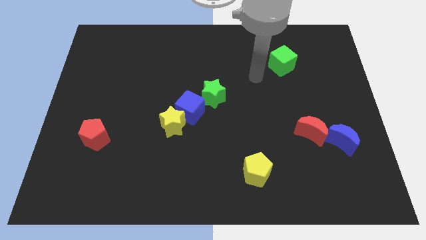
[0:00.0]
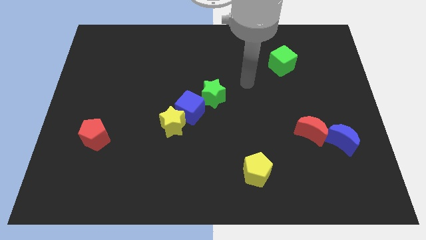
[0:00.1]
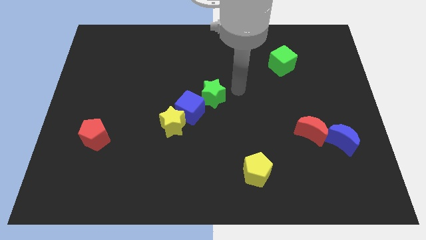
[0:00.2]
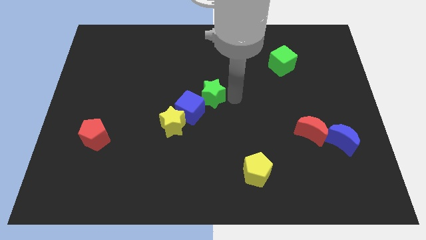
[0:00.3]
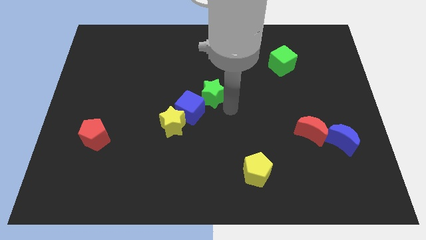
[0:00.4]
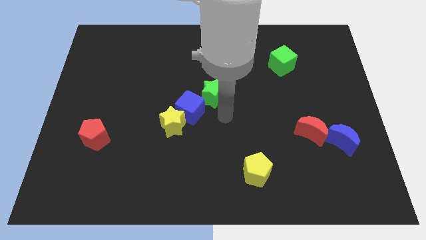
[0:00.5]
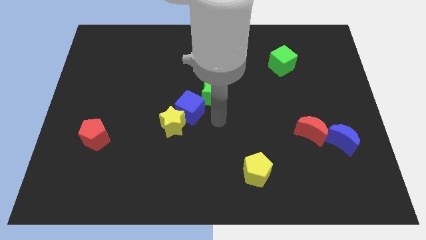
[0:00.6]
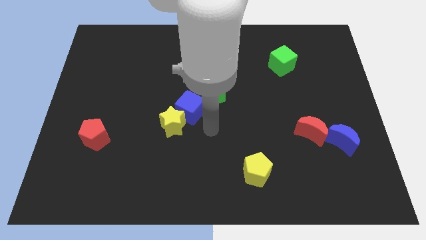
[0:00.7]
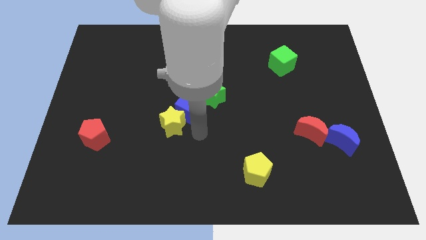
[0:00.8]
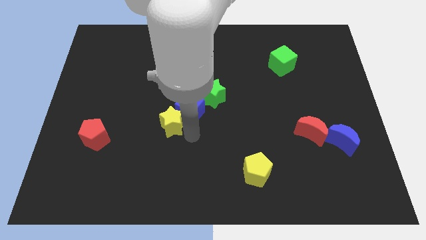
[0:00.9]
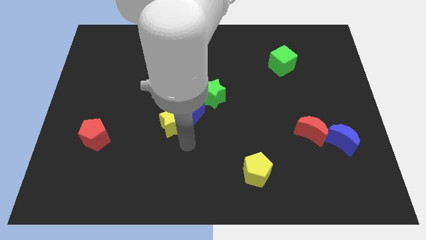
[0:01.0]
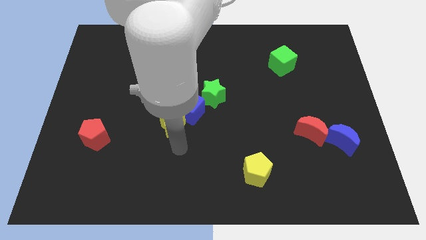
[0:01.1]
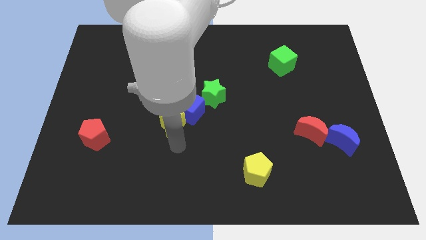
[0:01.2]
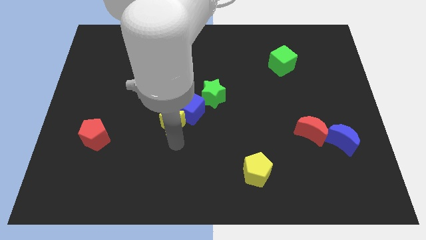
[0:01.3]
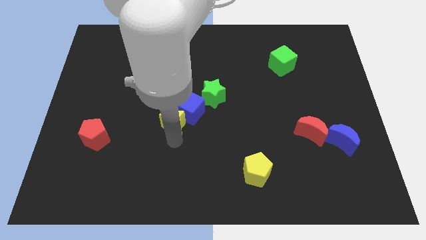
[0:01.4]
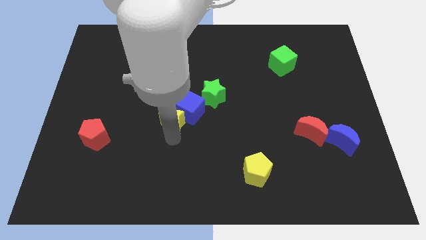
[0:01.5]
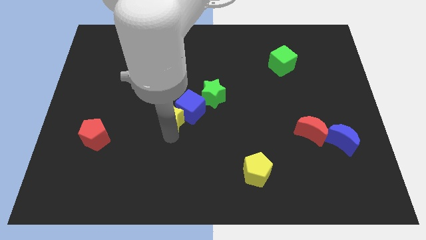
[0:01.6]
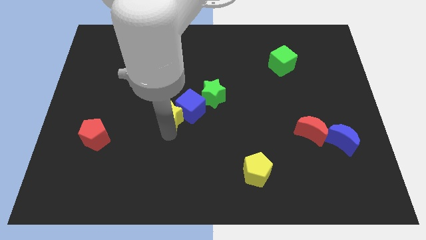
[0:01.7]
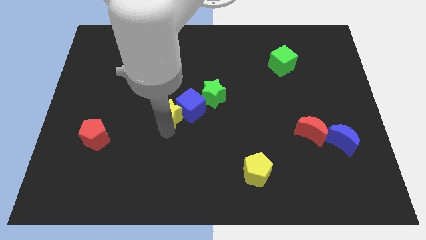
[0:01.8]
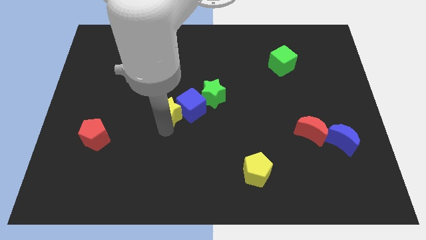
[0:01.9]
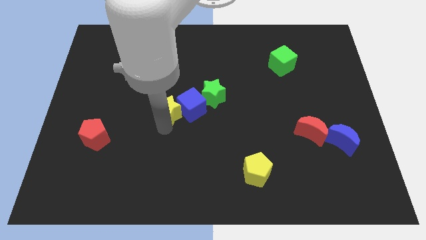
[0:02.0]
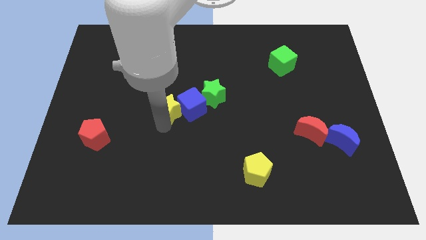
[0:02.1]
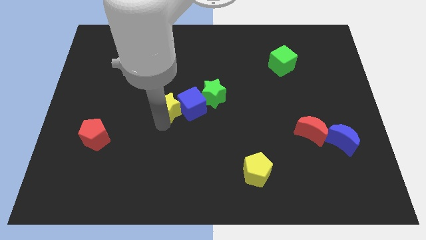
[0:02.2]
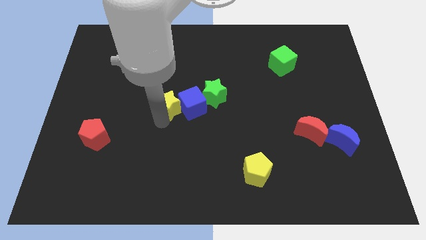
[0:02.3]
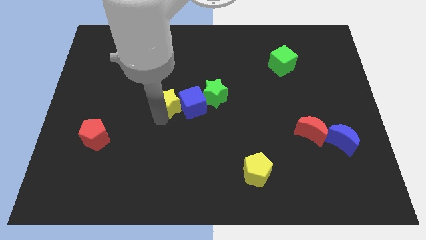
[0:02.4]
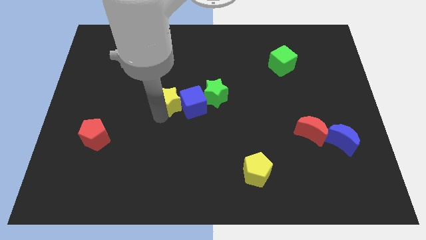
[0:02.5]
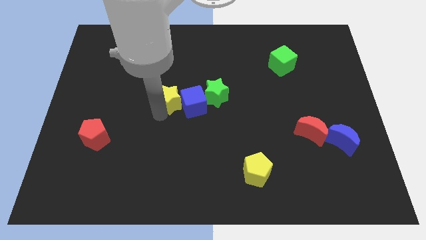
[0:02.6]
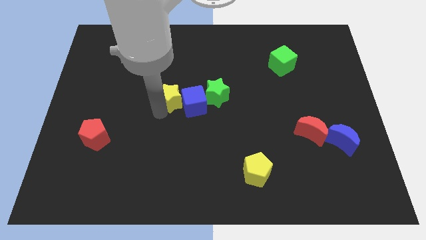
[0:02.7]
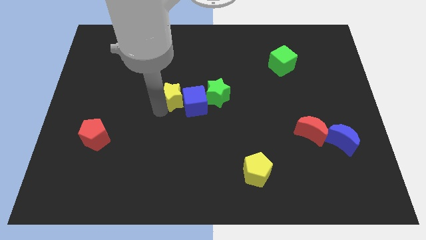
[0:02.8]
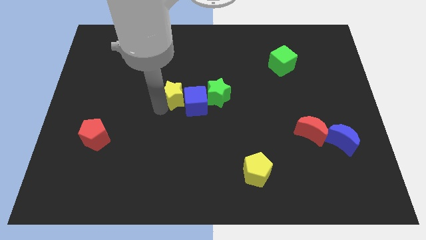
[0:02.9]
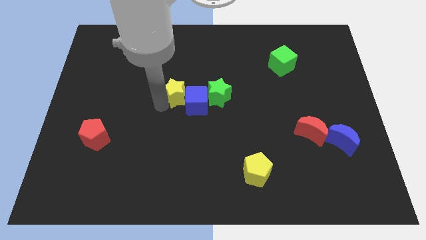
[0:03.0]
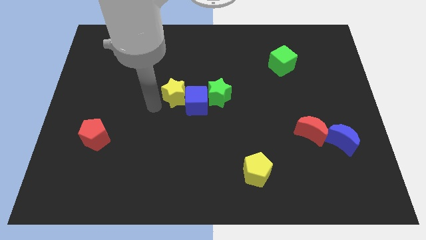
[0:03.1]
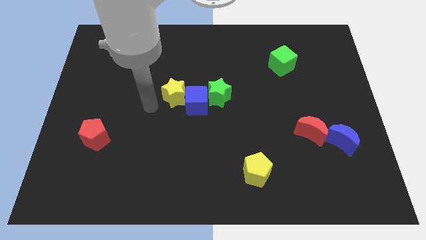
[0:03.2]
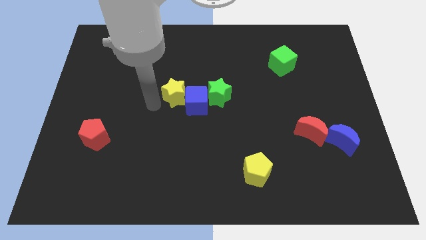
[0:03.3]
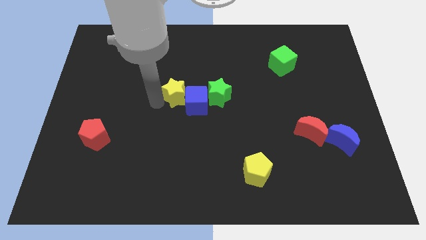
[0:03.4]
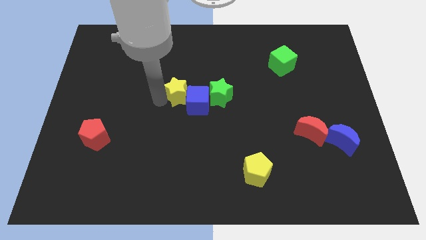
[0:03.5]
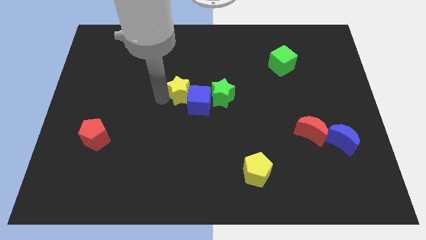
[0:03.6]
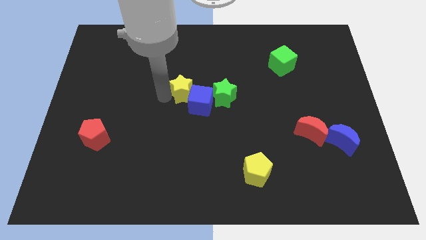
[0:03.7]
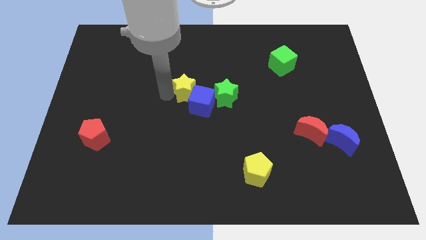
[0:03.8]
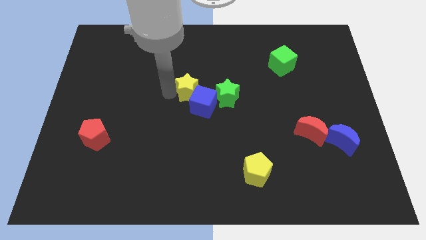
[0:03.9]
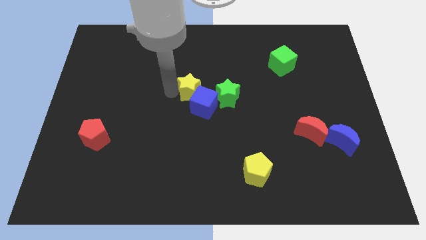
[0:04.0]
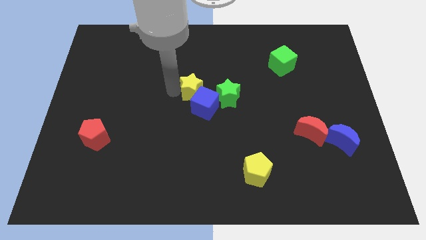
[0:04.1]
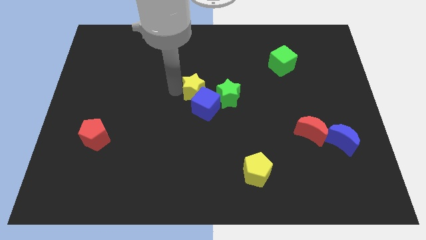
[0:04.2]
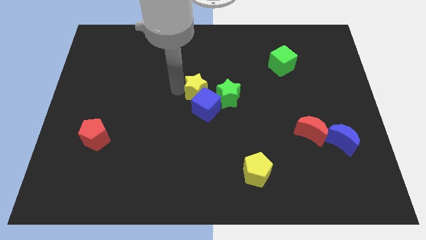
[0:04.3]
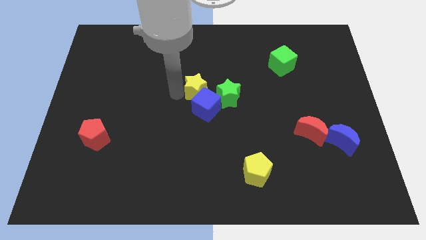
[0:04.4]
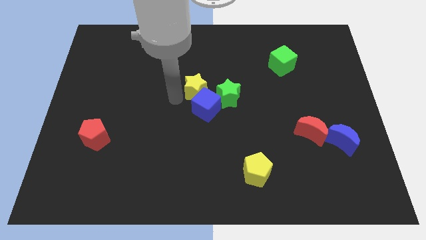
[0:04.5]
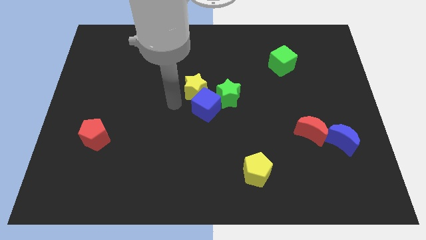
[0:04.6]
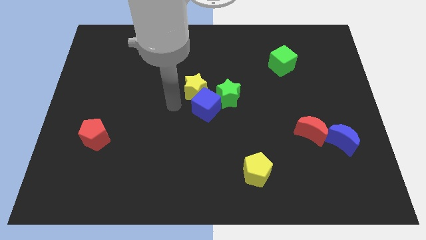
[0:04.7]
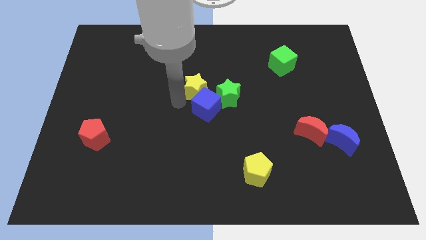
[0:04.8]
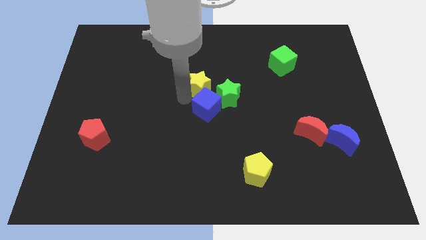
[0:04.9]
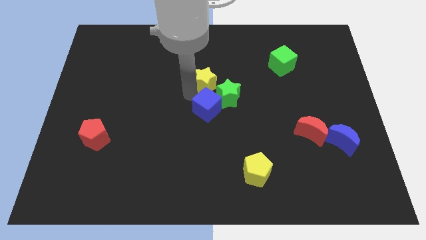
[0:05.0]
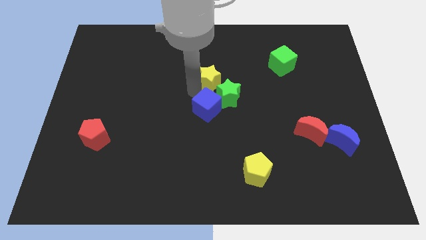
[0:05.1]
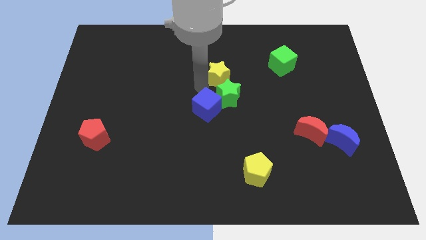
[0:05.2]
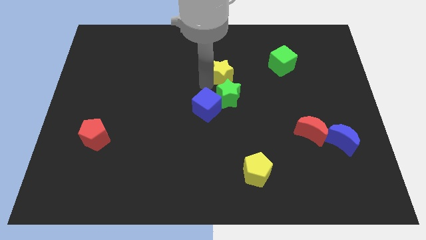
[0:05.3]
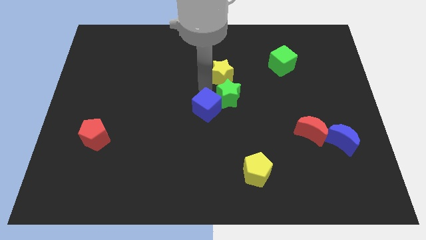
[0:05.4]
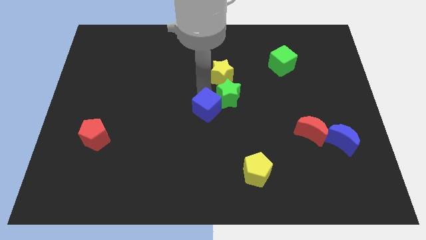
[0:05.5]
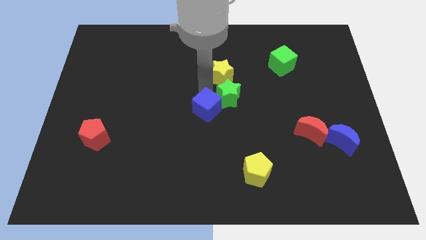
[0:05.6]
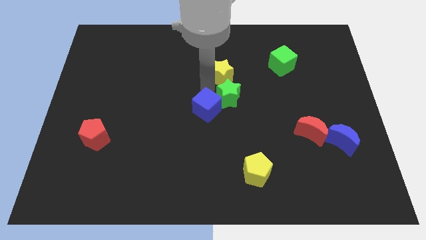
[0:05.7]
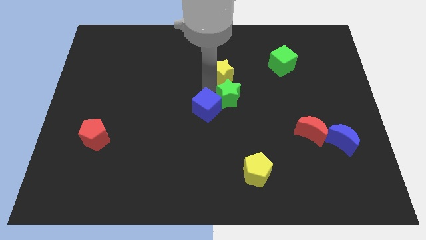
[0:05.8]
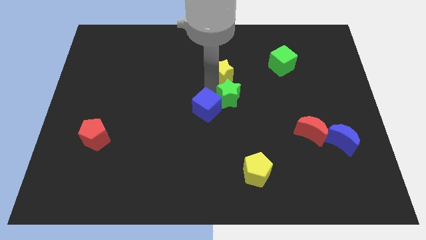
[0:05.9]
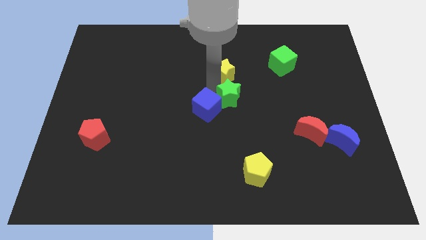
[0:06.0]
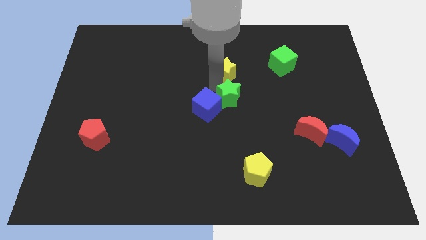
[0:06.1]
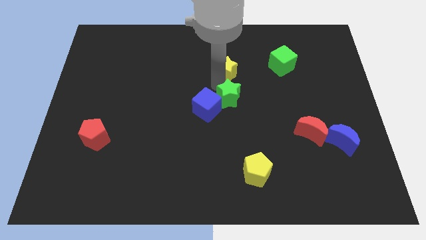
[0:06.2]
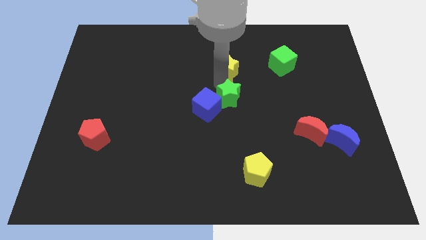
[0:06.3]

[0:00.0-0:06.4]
slide the yellow star upwards and then right

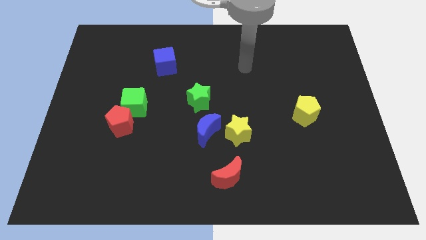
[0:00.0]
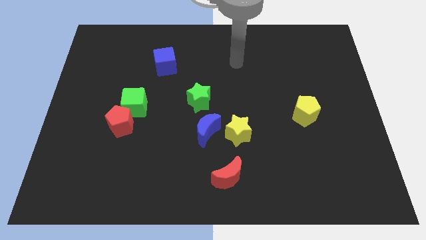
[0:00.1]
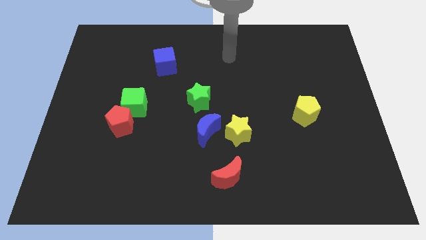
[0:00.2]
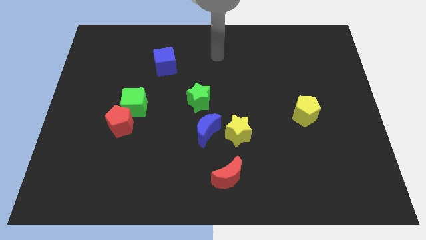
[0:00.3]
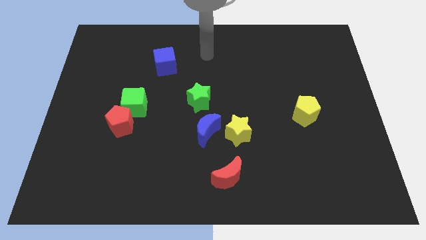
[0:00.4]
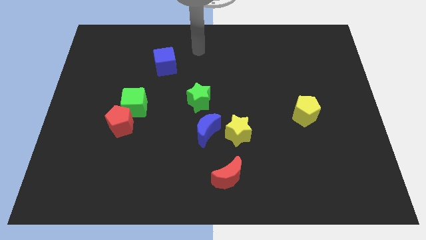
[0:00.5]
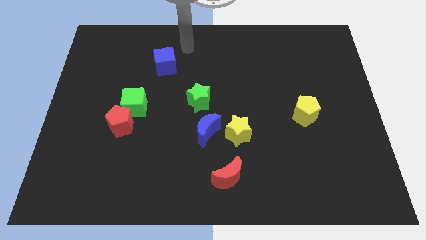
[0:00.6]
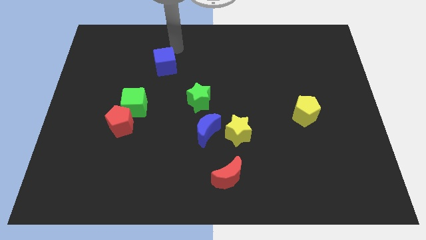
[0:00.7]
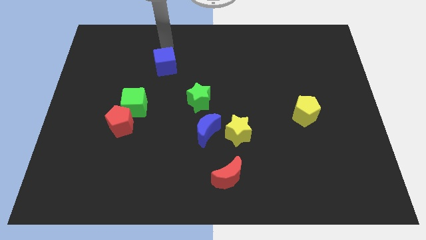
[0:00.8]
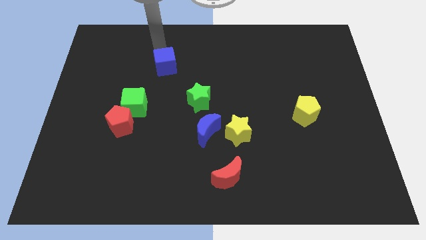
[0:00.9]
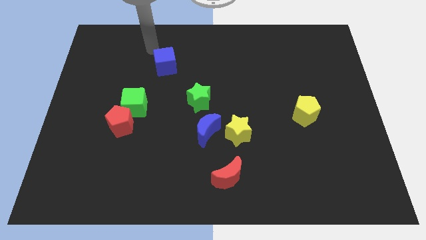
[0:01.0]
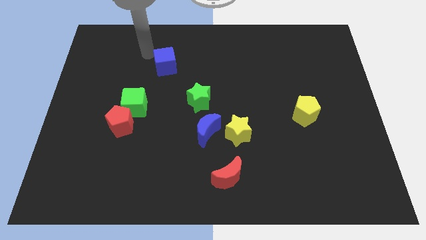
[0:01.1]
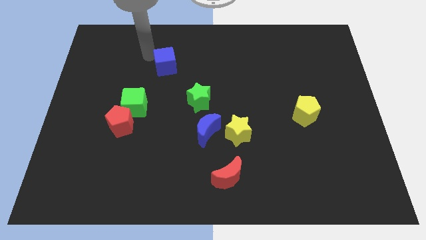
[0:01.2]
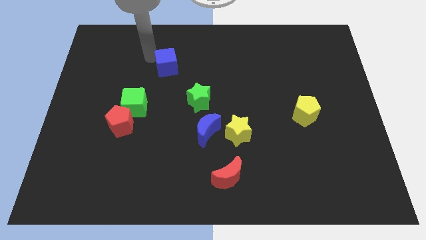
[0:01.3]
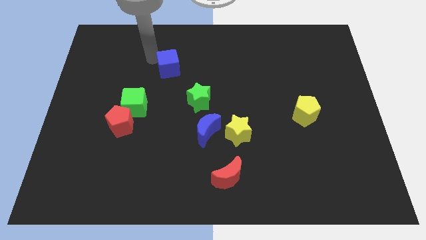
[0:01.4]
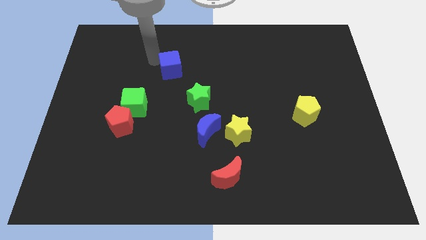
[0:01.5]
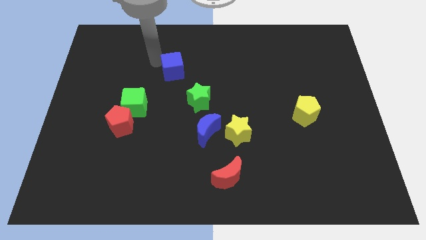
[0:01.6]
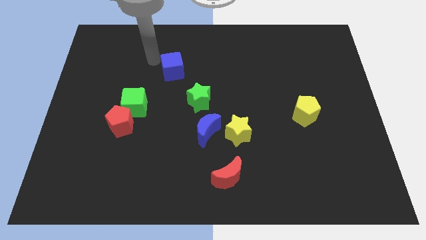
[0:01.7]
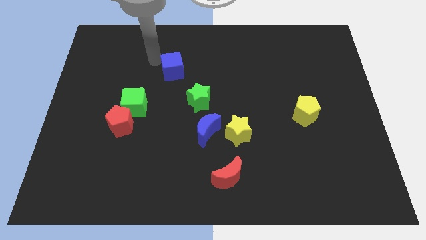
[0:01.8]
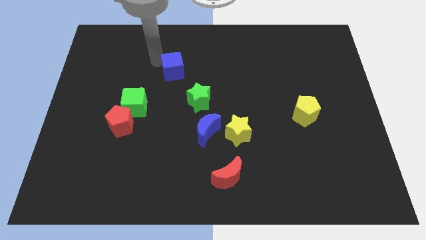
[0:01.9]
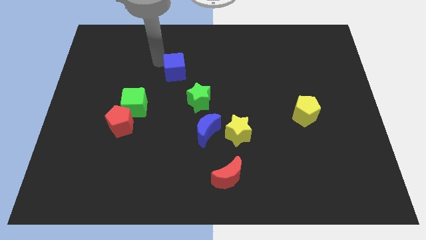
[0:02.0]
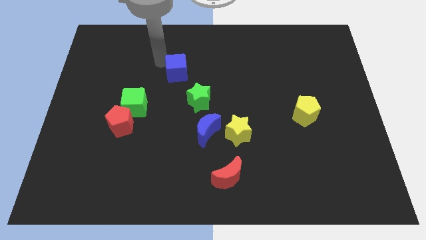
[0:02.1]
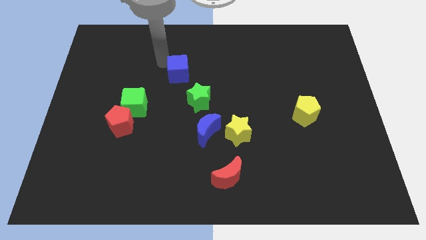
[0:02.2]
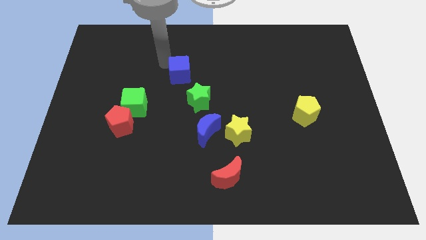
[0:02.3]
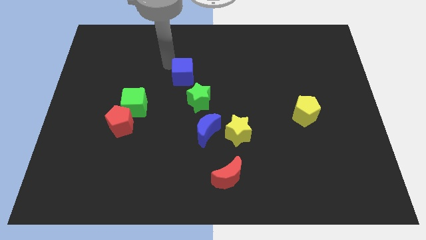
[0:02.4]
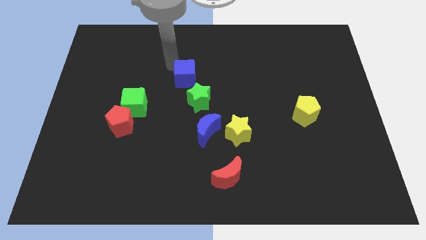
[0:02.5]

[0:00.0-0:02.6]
push the blue cube diagonally downwards and to the right slightly
